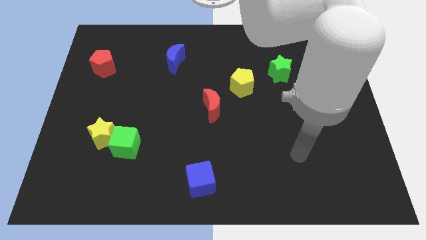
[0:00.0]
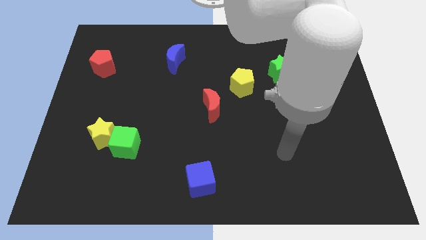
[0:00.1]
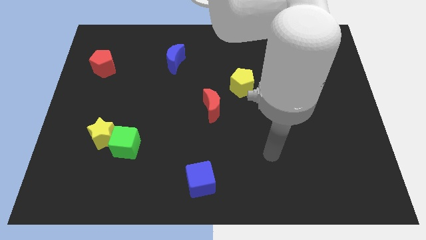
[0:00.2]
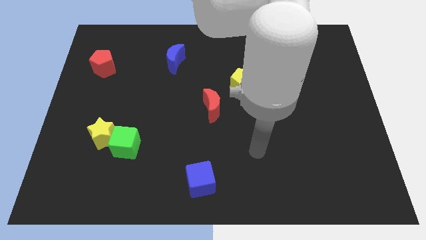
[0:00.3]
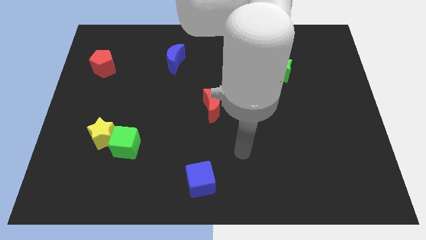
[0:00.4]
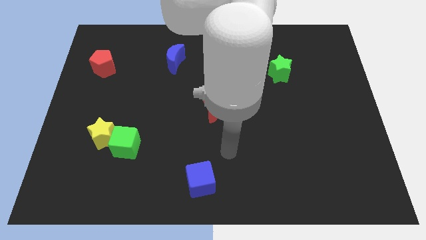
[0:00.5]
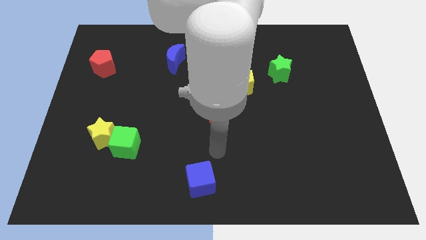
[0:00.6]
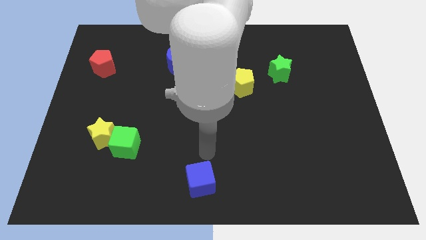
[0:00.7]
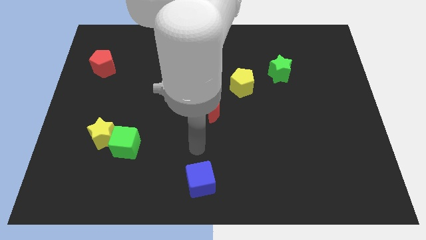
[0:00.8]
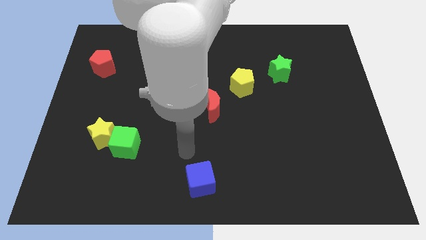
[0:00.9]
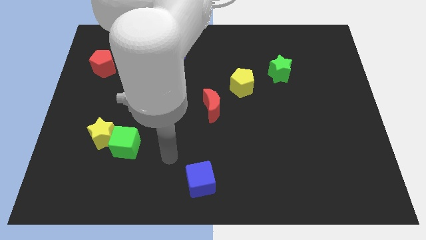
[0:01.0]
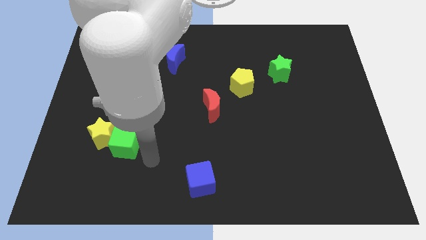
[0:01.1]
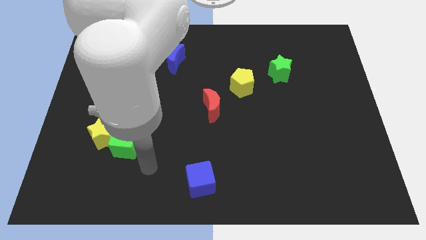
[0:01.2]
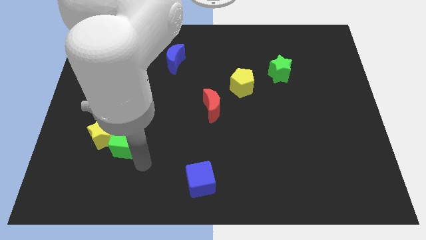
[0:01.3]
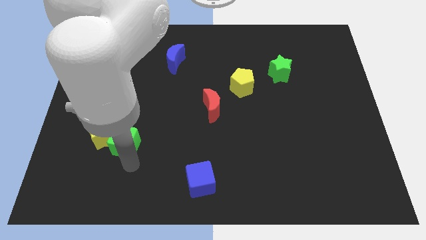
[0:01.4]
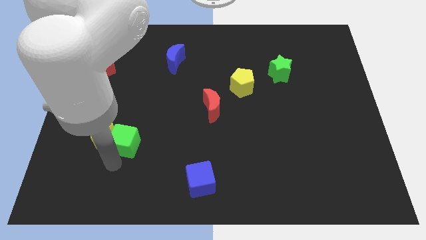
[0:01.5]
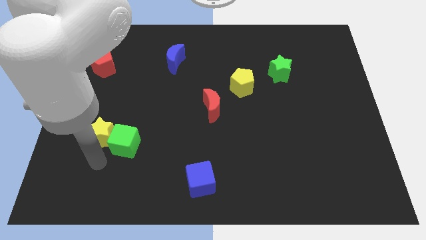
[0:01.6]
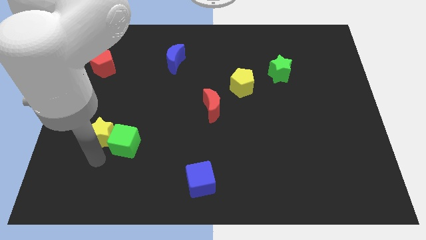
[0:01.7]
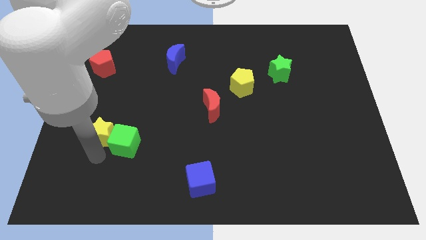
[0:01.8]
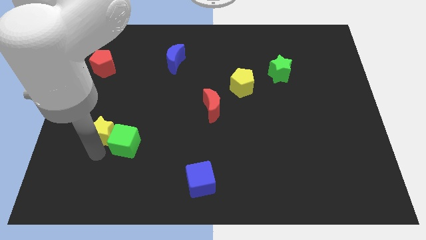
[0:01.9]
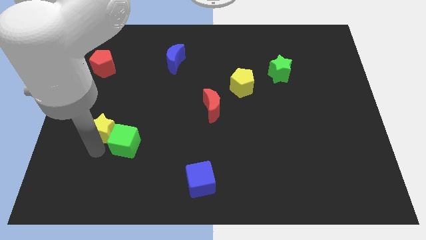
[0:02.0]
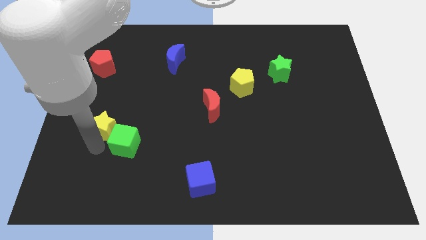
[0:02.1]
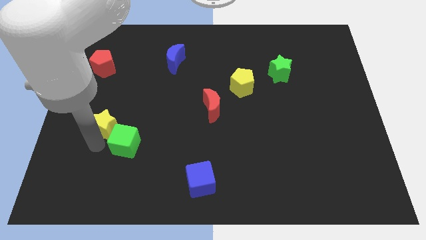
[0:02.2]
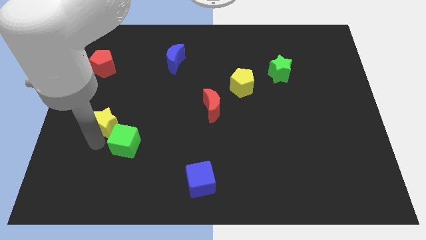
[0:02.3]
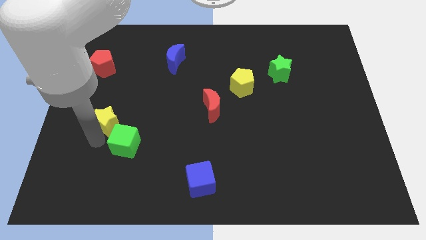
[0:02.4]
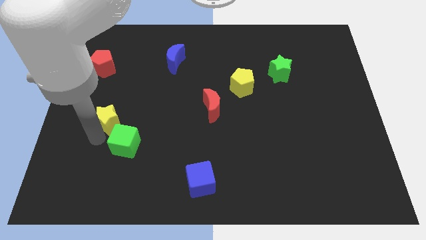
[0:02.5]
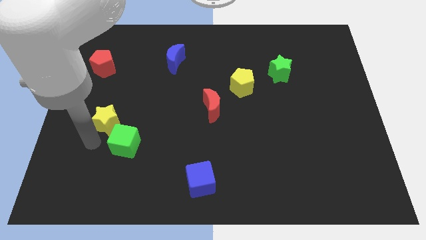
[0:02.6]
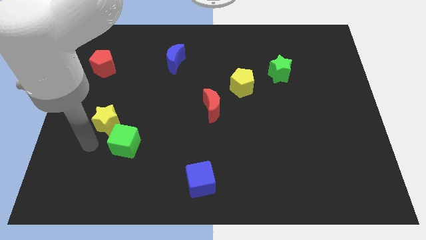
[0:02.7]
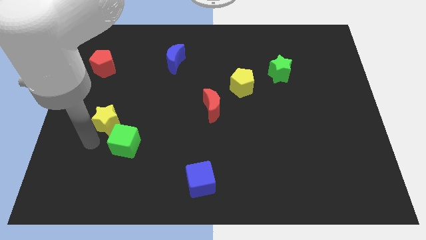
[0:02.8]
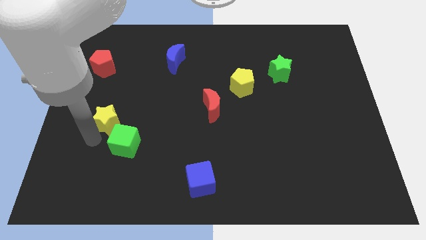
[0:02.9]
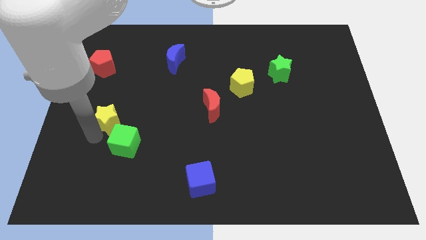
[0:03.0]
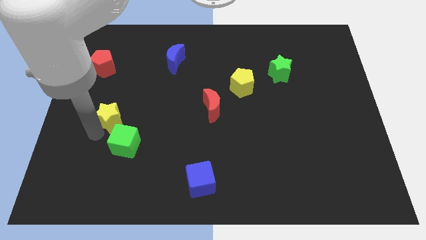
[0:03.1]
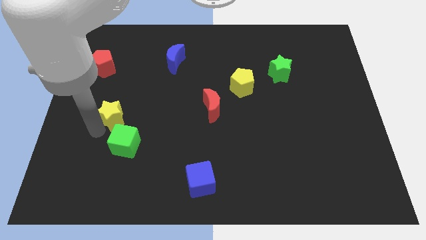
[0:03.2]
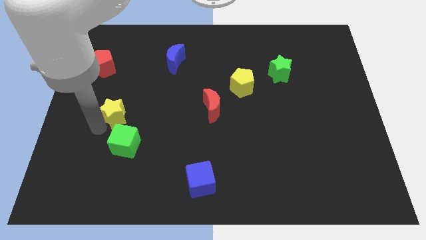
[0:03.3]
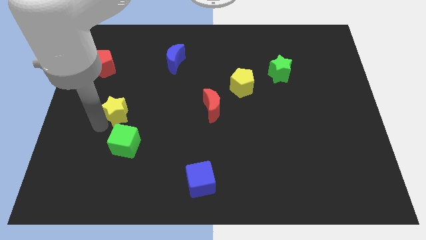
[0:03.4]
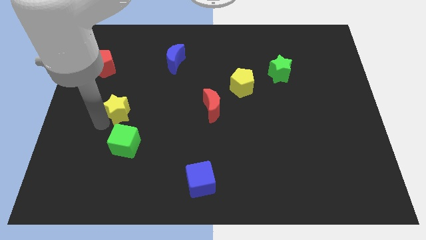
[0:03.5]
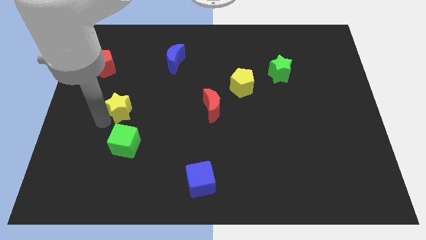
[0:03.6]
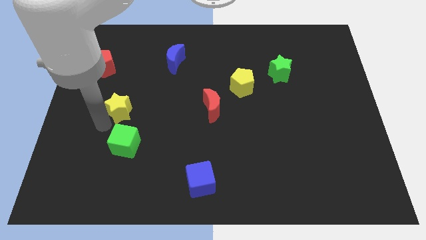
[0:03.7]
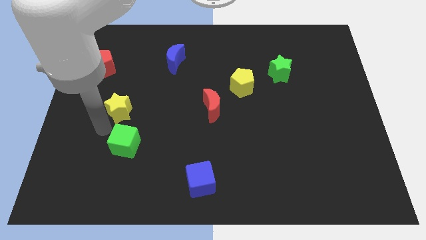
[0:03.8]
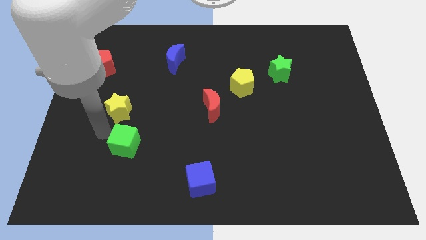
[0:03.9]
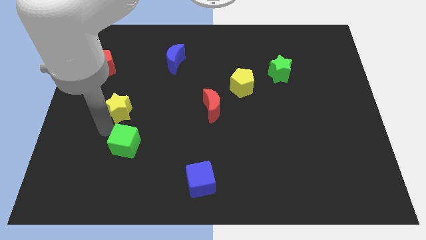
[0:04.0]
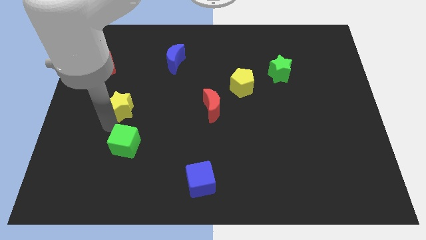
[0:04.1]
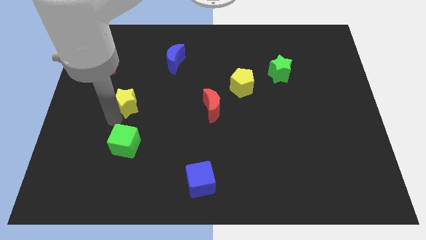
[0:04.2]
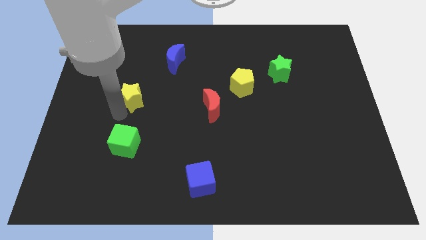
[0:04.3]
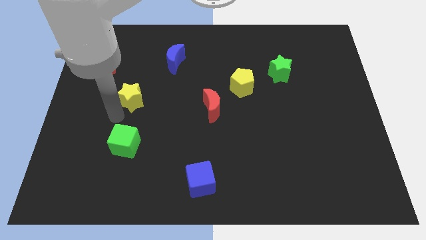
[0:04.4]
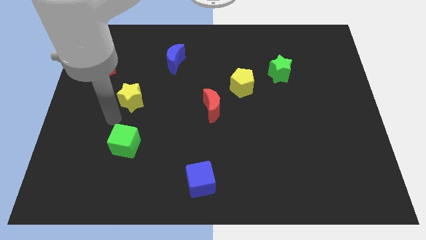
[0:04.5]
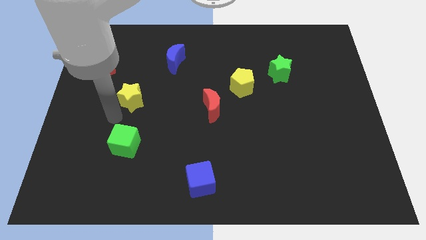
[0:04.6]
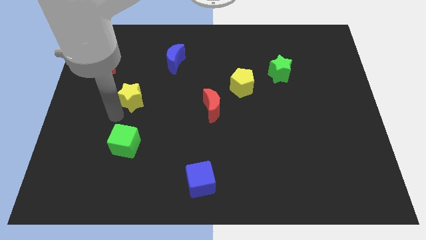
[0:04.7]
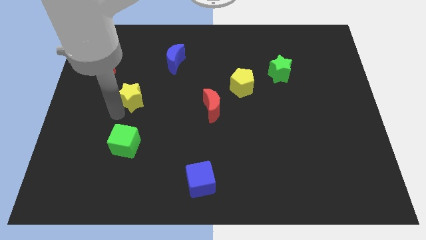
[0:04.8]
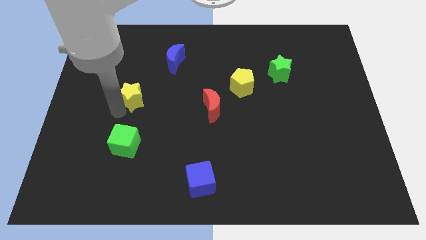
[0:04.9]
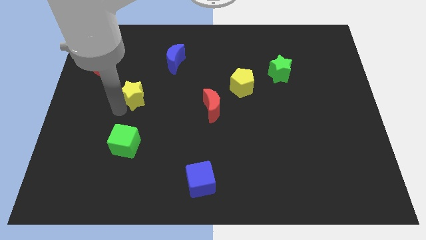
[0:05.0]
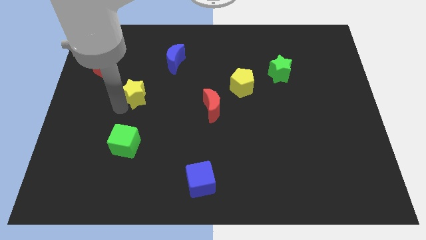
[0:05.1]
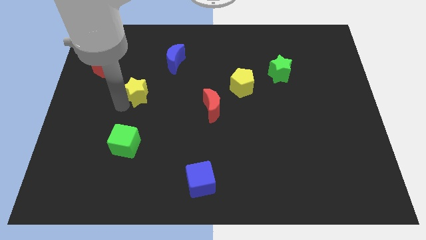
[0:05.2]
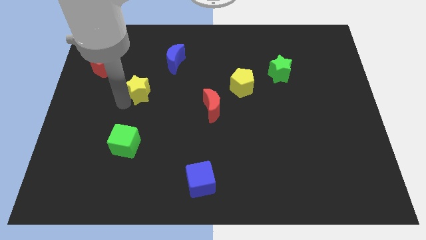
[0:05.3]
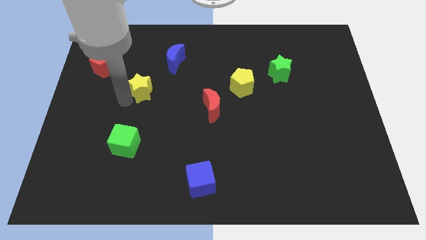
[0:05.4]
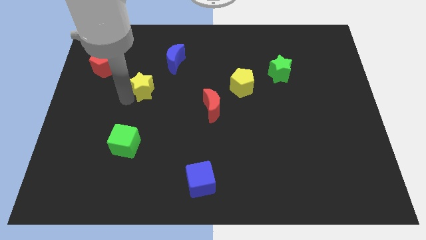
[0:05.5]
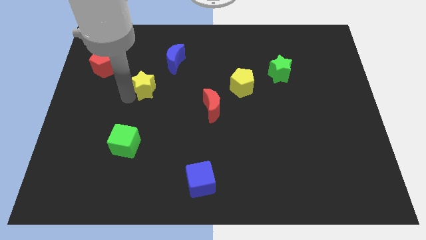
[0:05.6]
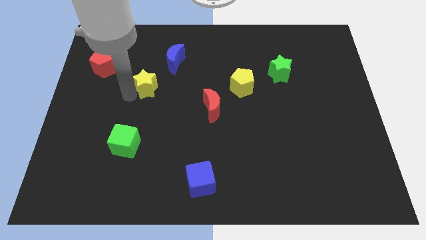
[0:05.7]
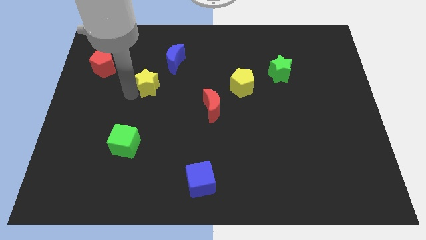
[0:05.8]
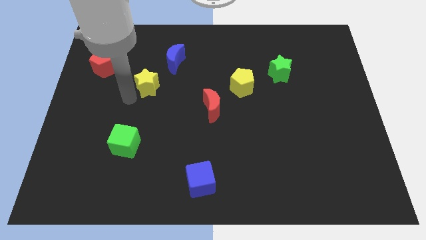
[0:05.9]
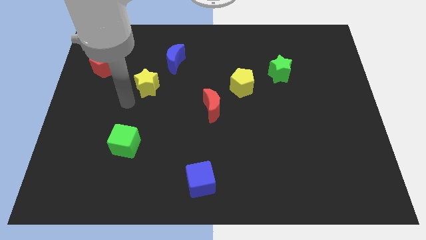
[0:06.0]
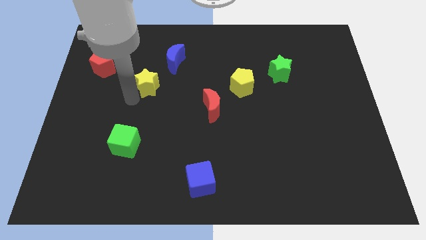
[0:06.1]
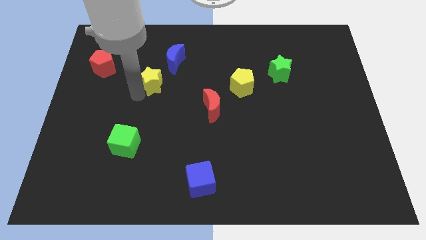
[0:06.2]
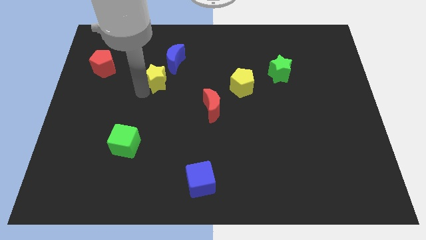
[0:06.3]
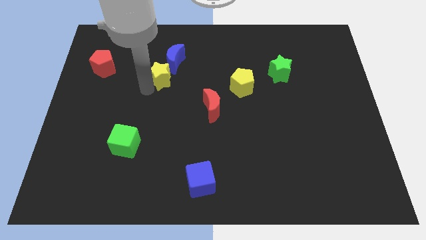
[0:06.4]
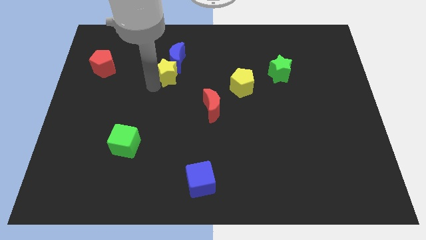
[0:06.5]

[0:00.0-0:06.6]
put the yellow star to the blue moon

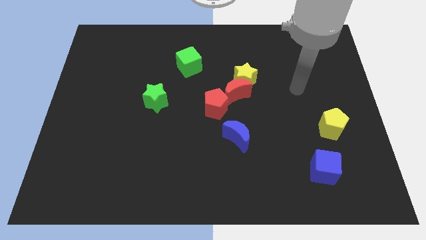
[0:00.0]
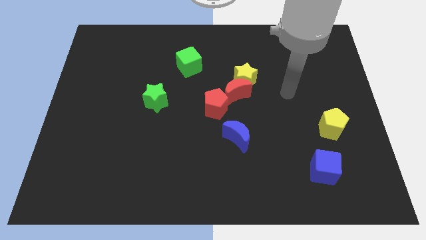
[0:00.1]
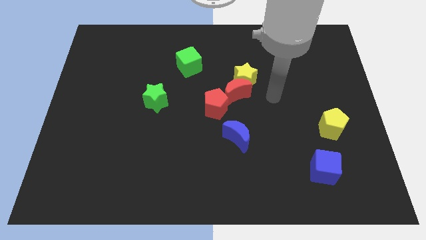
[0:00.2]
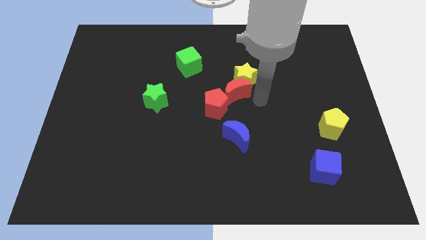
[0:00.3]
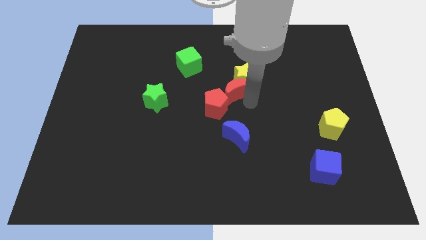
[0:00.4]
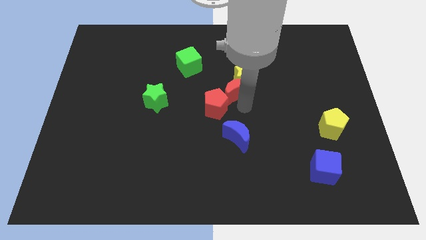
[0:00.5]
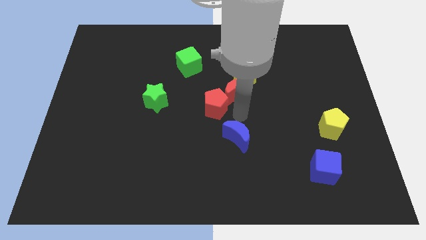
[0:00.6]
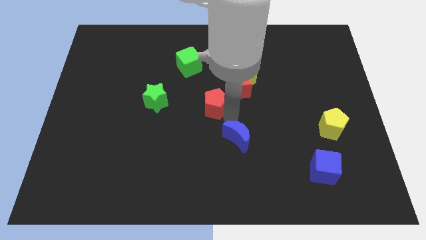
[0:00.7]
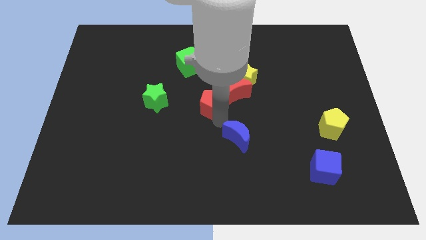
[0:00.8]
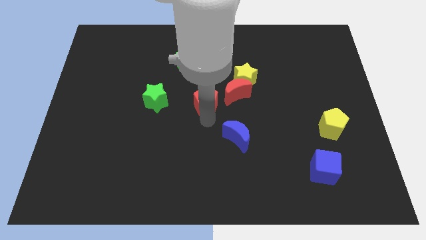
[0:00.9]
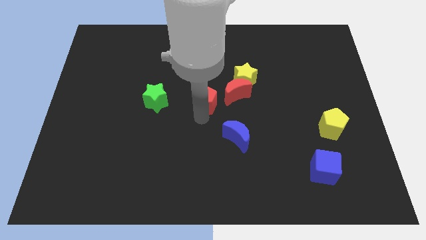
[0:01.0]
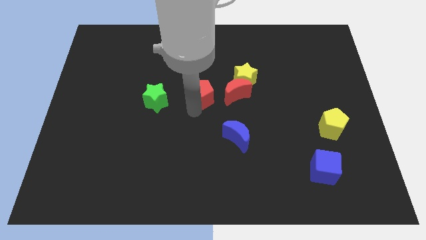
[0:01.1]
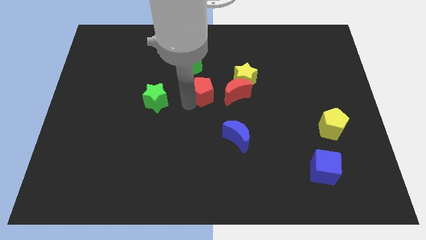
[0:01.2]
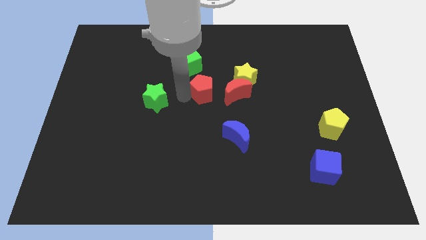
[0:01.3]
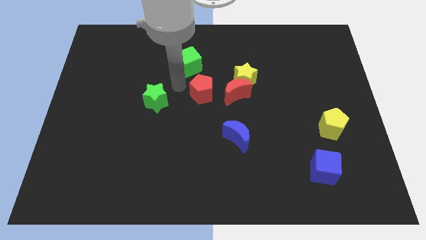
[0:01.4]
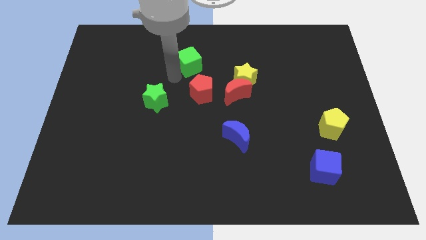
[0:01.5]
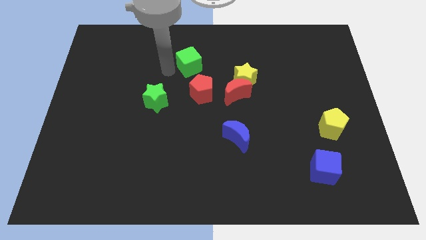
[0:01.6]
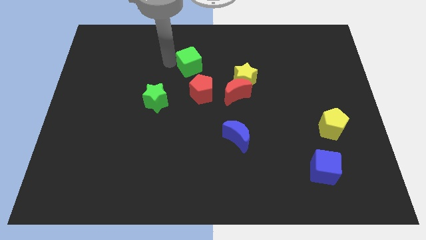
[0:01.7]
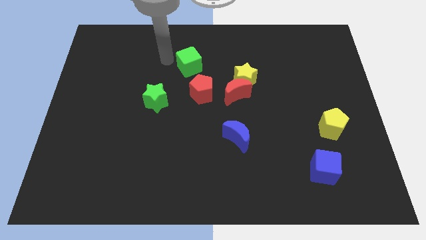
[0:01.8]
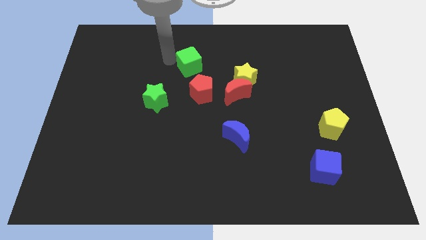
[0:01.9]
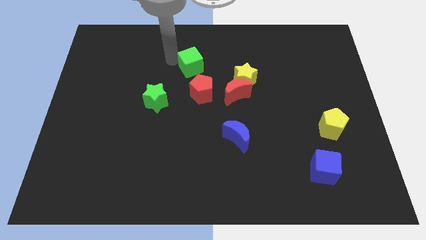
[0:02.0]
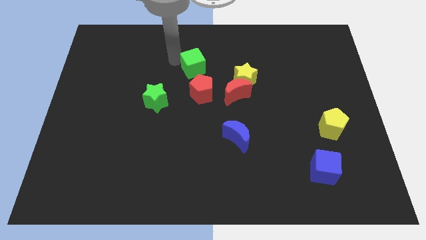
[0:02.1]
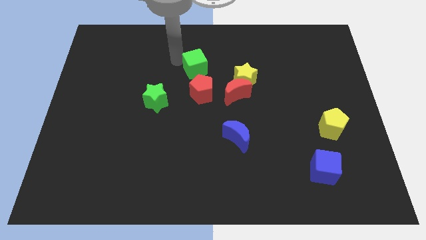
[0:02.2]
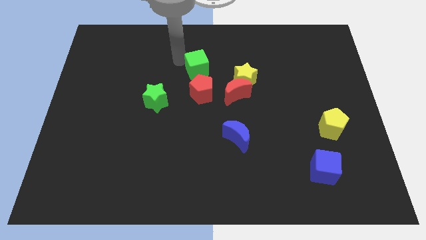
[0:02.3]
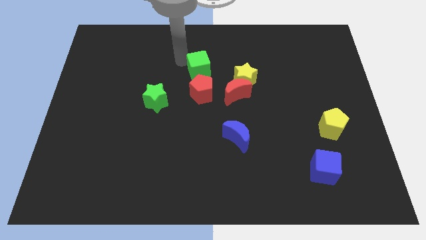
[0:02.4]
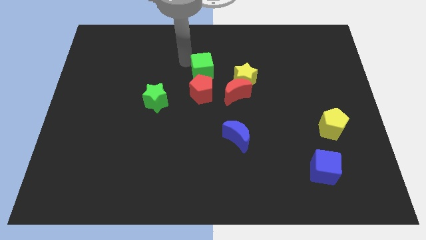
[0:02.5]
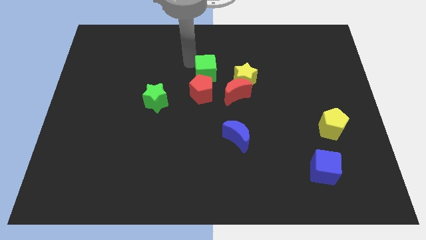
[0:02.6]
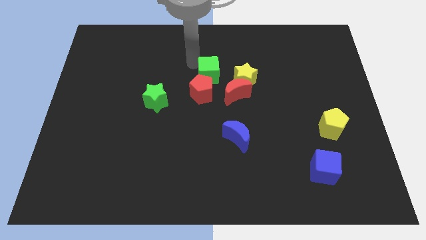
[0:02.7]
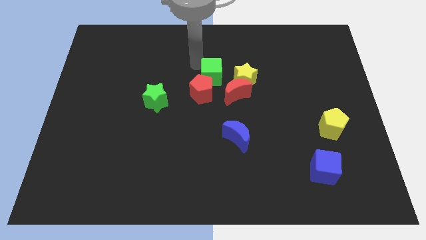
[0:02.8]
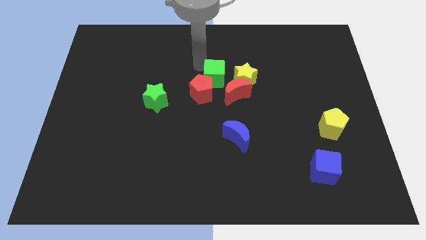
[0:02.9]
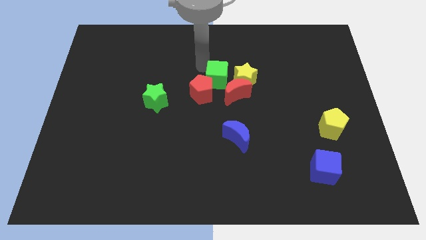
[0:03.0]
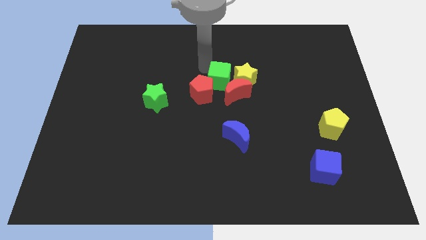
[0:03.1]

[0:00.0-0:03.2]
put the green cube close to the yellow star
